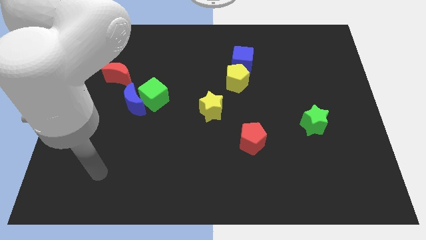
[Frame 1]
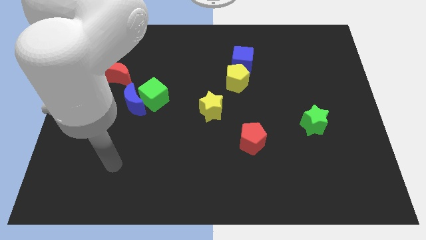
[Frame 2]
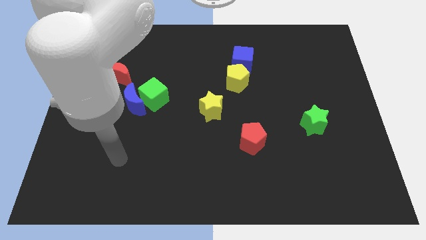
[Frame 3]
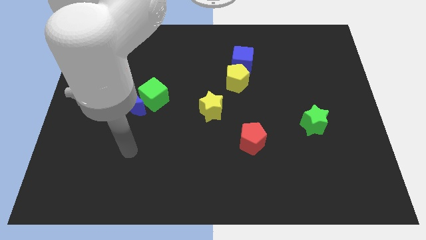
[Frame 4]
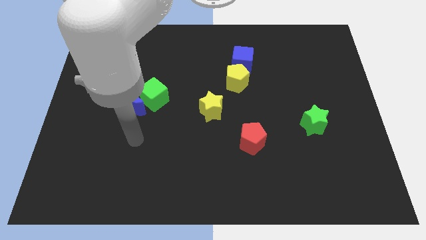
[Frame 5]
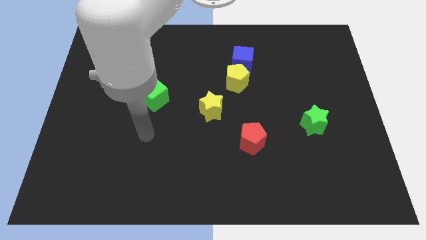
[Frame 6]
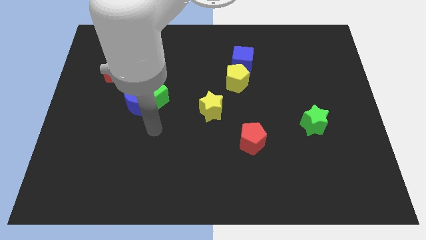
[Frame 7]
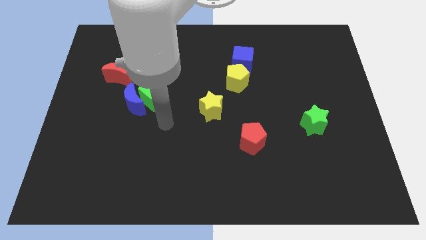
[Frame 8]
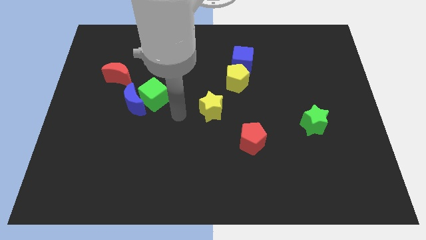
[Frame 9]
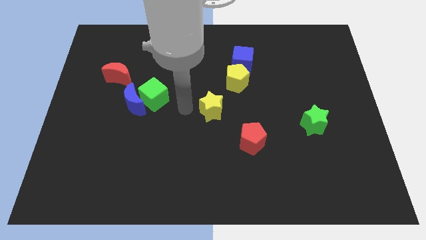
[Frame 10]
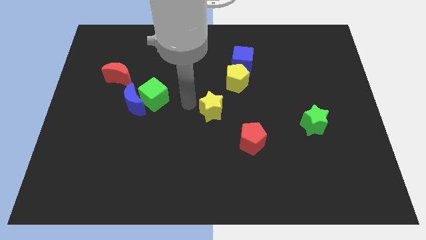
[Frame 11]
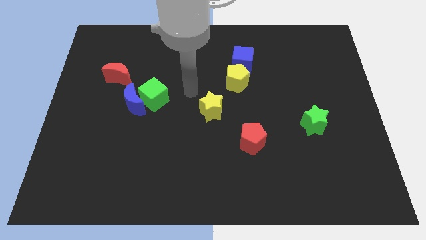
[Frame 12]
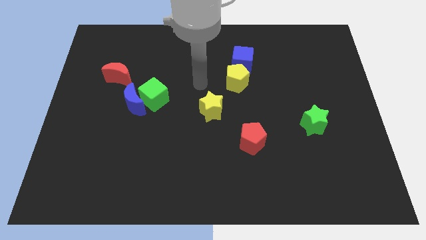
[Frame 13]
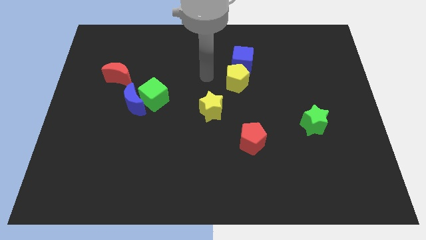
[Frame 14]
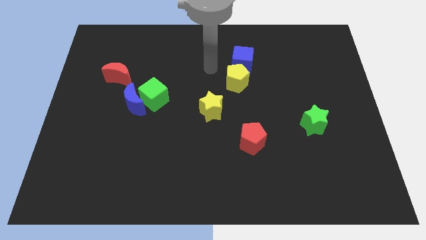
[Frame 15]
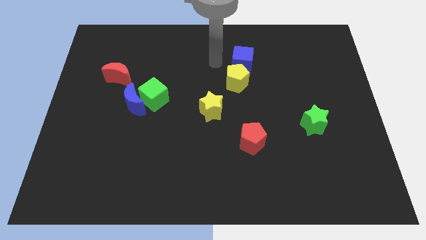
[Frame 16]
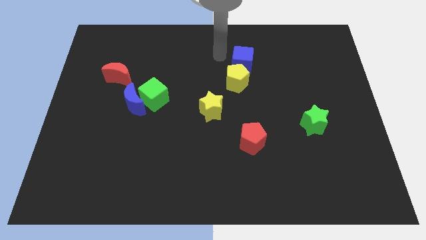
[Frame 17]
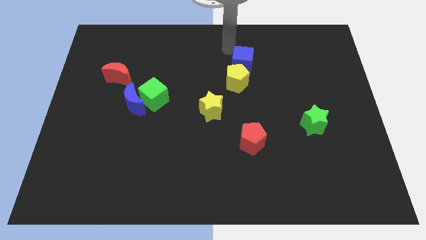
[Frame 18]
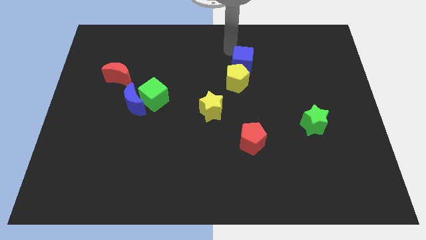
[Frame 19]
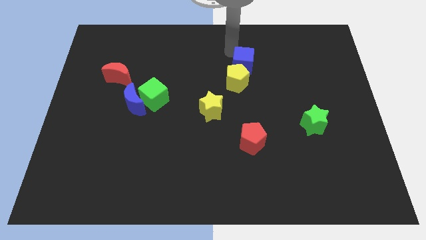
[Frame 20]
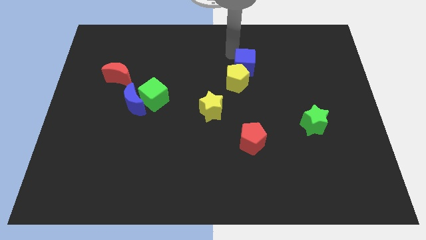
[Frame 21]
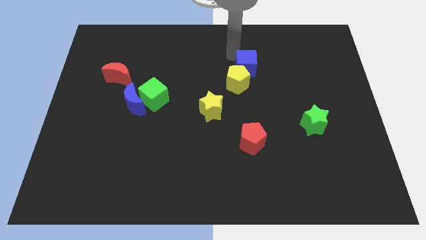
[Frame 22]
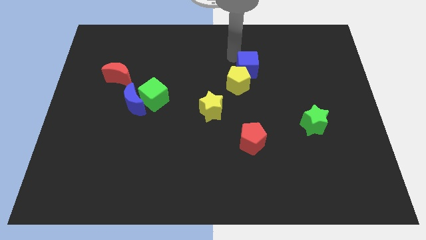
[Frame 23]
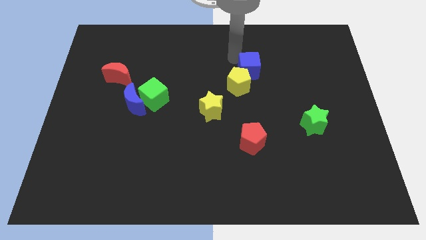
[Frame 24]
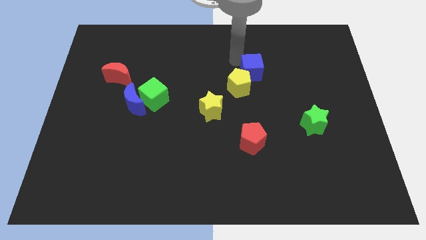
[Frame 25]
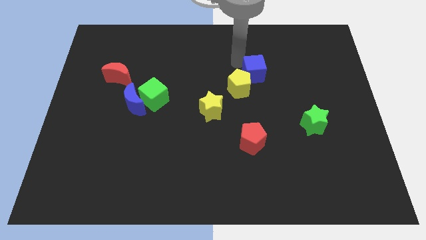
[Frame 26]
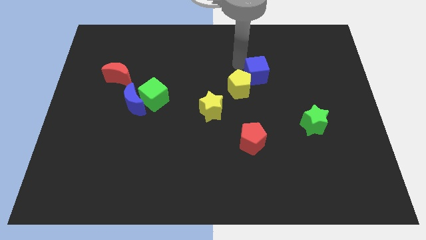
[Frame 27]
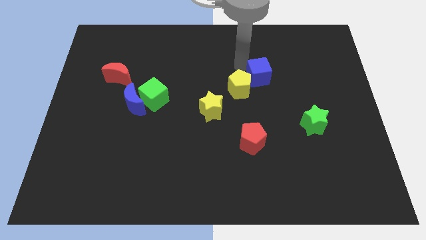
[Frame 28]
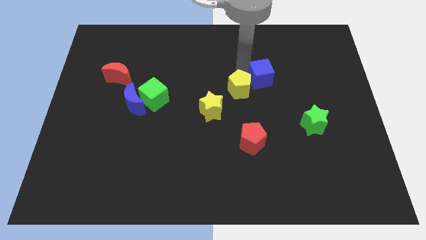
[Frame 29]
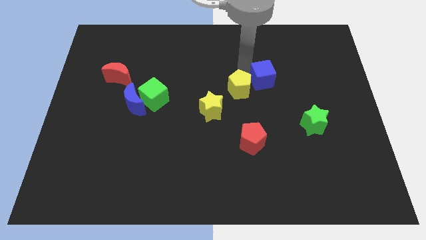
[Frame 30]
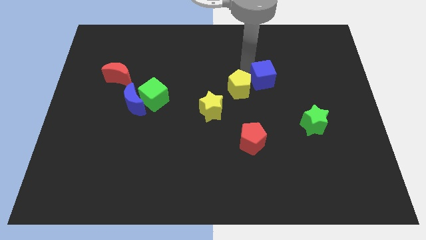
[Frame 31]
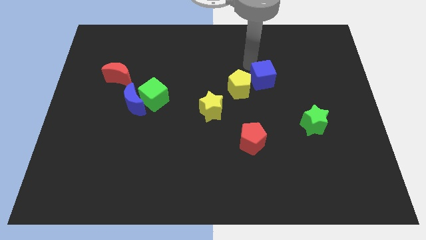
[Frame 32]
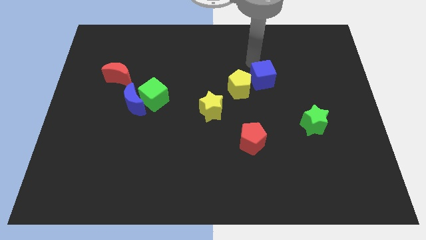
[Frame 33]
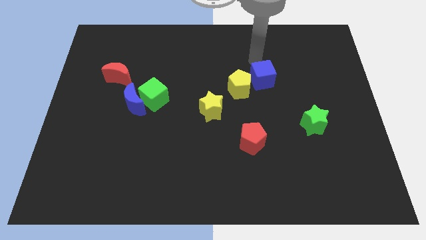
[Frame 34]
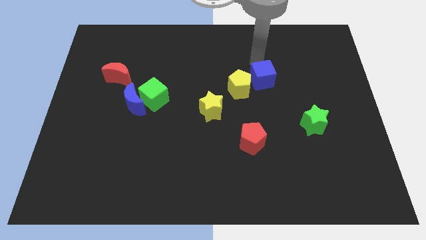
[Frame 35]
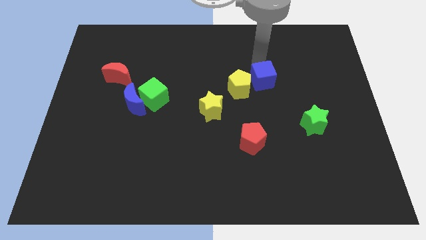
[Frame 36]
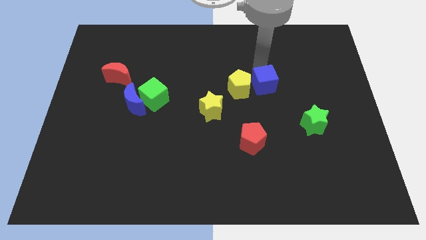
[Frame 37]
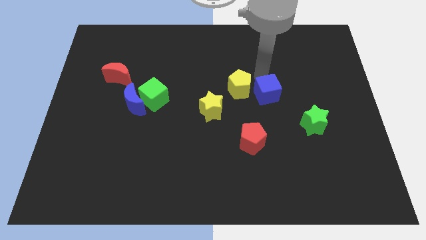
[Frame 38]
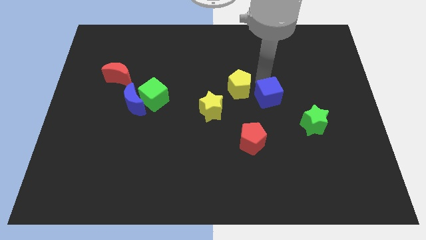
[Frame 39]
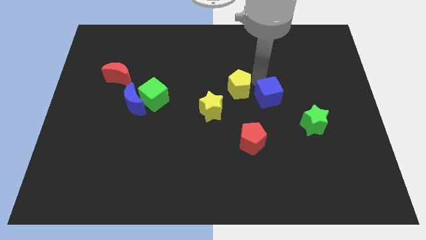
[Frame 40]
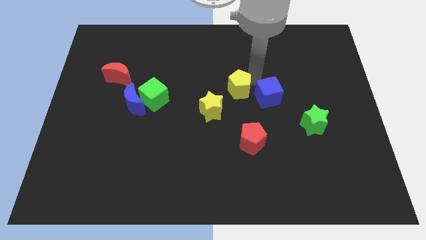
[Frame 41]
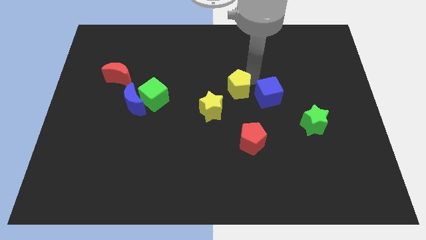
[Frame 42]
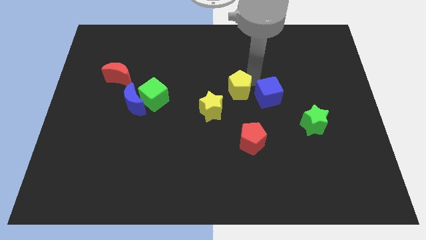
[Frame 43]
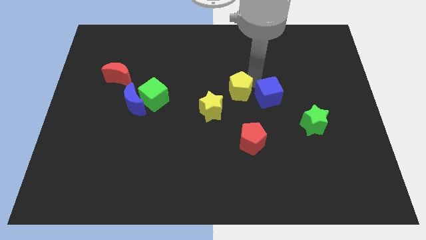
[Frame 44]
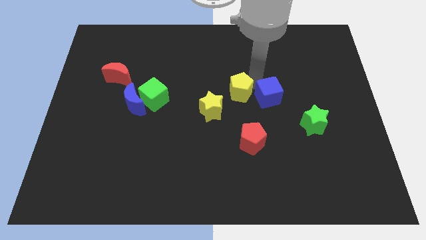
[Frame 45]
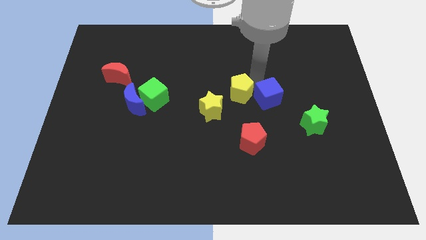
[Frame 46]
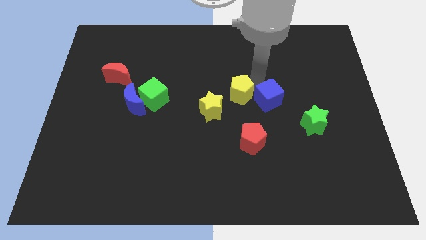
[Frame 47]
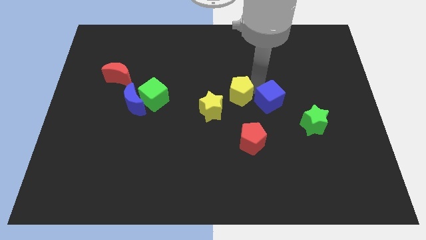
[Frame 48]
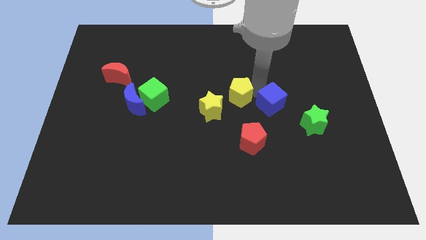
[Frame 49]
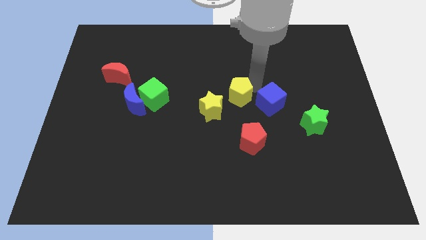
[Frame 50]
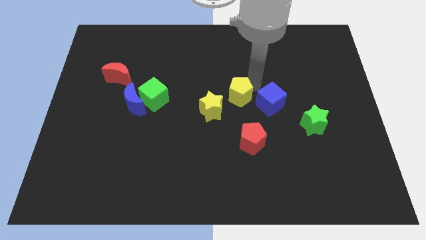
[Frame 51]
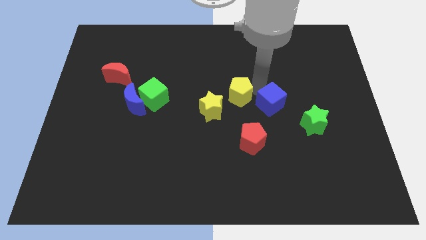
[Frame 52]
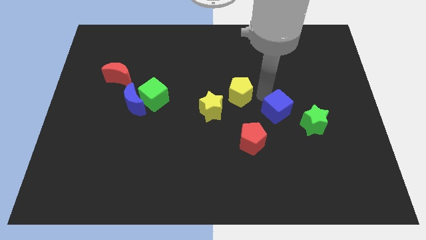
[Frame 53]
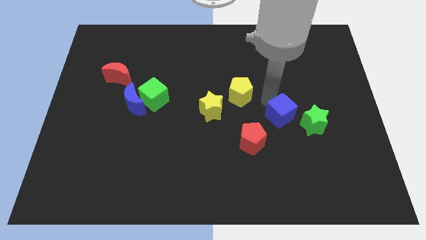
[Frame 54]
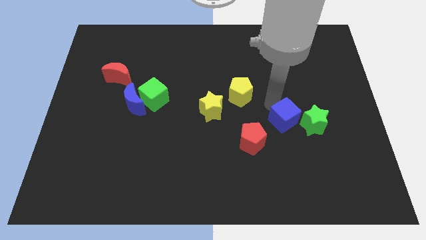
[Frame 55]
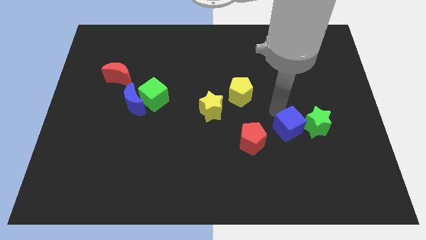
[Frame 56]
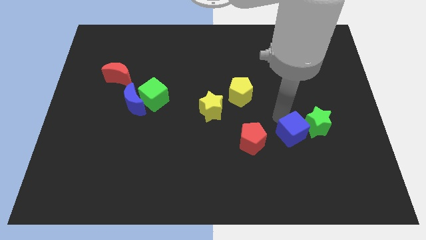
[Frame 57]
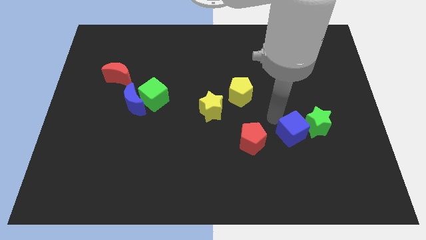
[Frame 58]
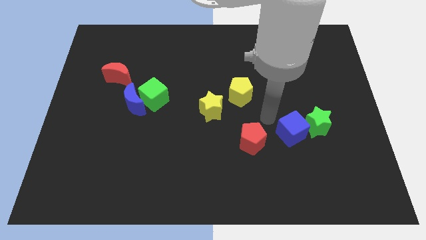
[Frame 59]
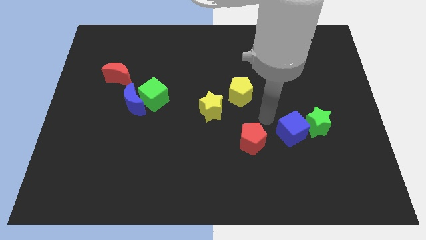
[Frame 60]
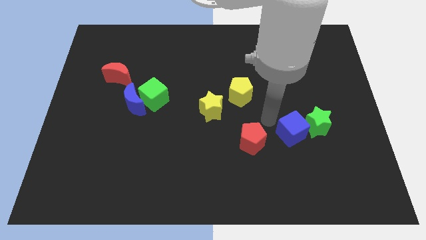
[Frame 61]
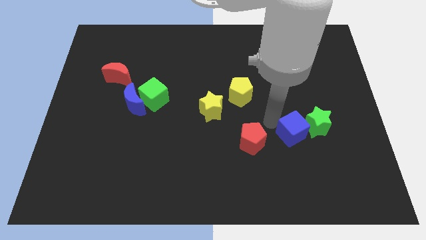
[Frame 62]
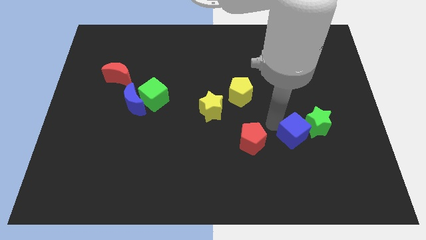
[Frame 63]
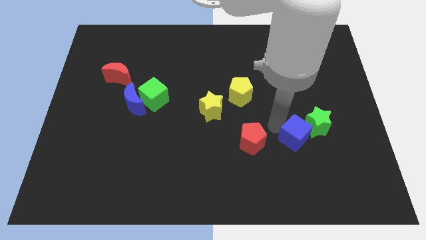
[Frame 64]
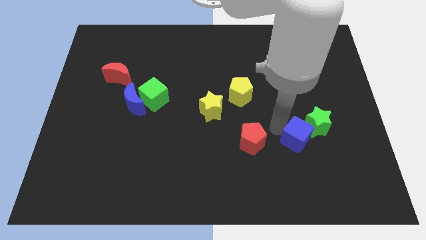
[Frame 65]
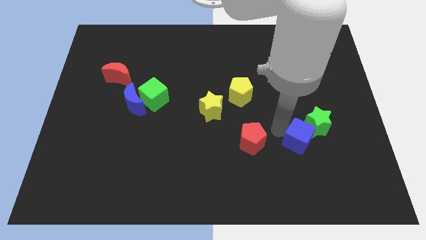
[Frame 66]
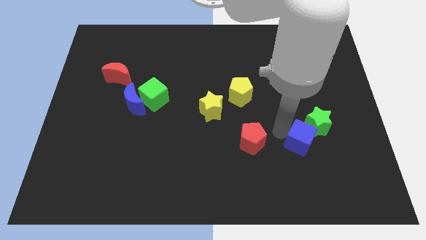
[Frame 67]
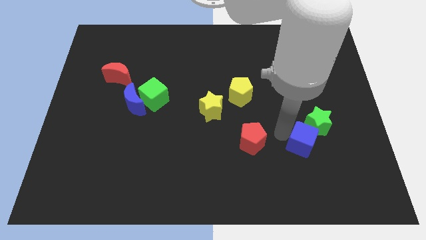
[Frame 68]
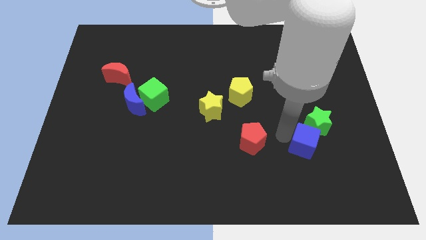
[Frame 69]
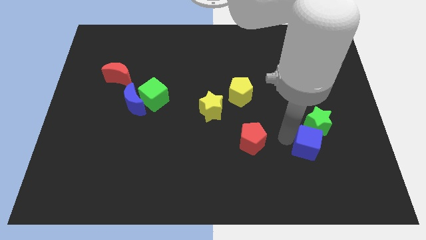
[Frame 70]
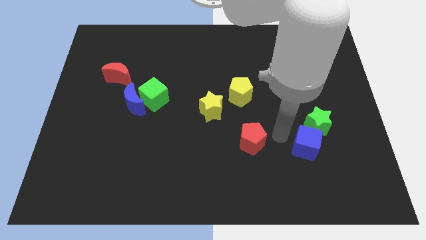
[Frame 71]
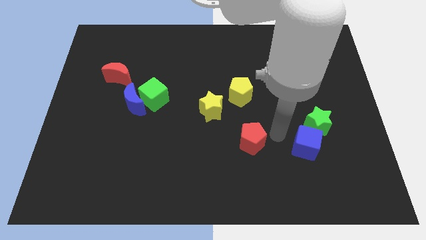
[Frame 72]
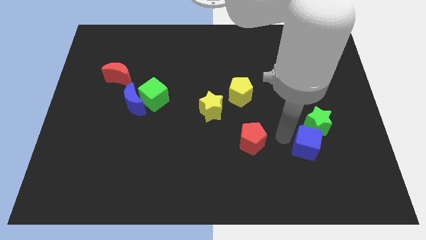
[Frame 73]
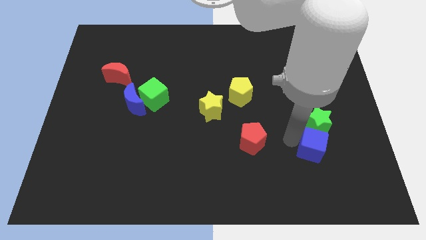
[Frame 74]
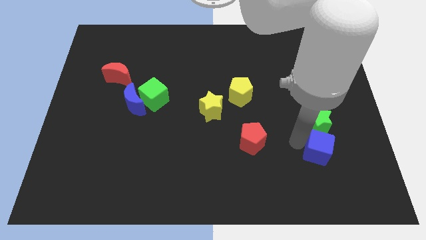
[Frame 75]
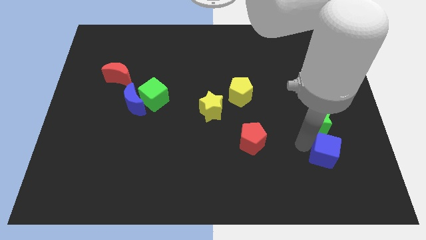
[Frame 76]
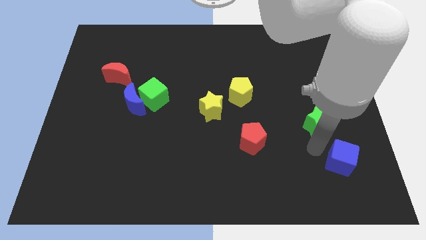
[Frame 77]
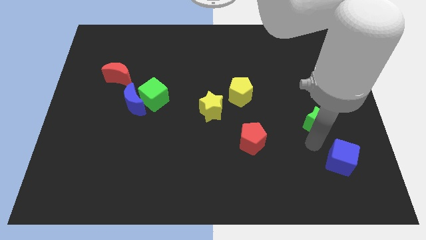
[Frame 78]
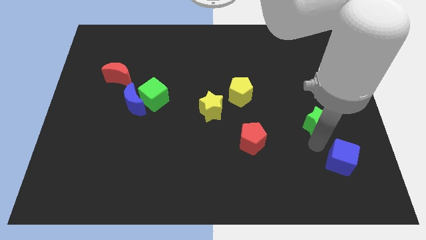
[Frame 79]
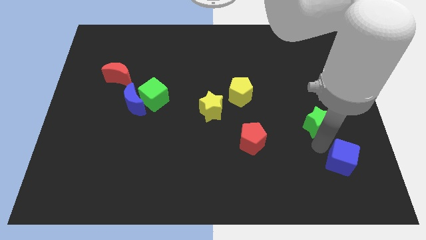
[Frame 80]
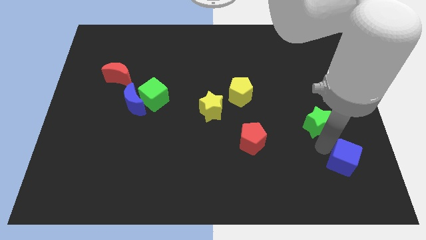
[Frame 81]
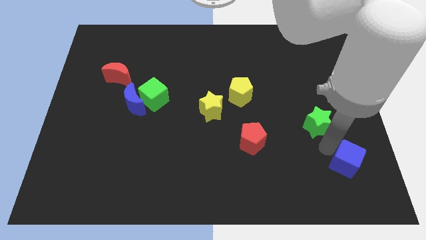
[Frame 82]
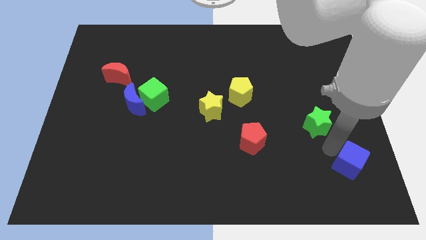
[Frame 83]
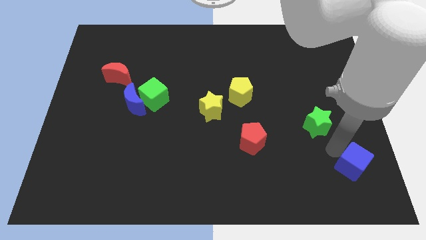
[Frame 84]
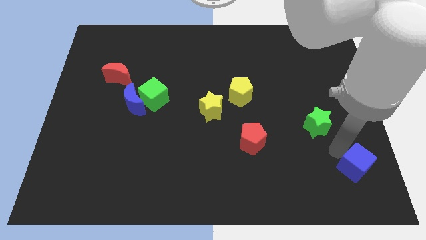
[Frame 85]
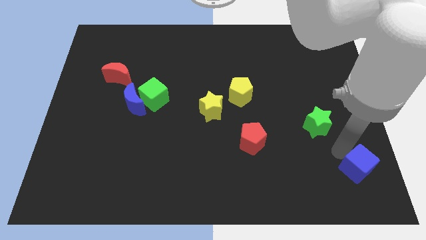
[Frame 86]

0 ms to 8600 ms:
push the blue cube to the bottom right
